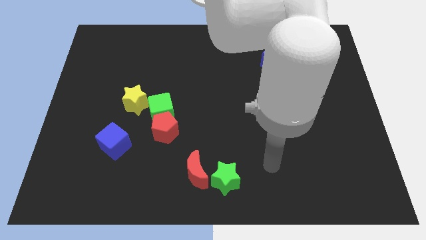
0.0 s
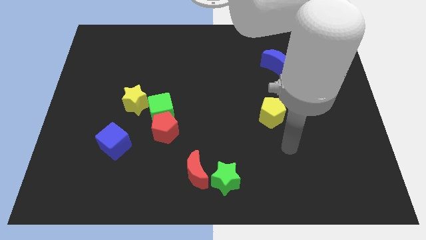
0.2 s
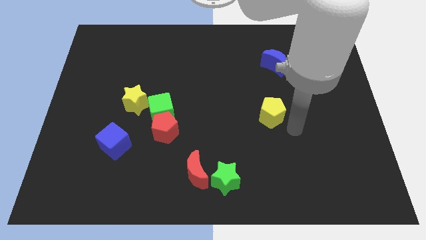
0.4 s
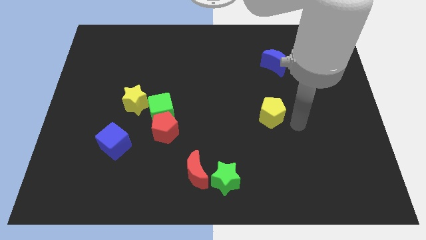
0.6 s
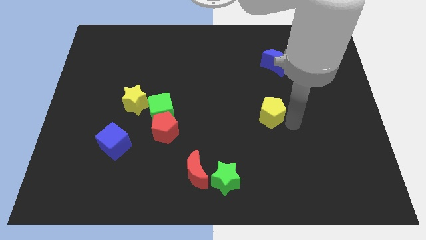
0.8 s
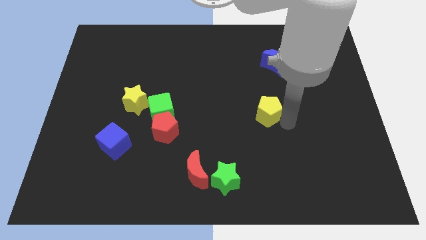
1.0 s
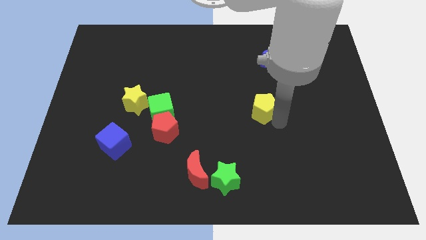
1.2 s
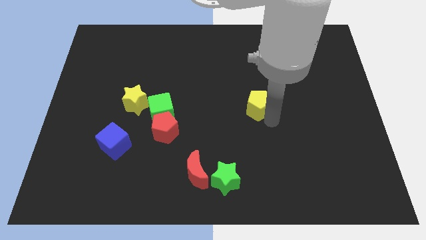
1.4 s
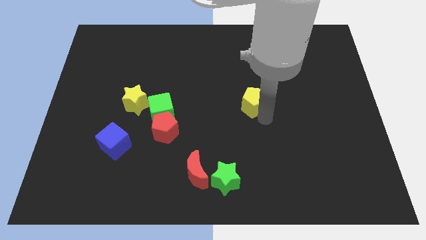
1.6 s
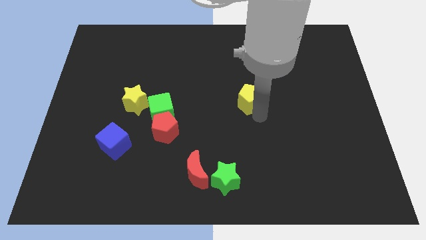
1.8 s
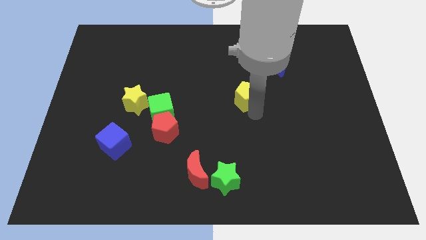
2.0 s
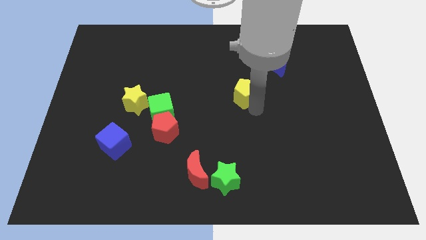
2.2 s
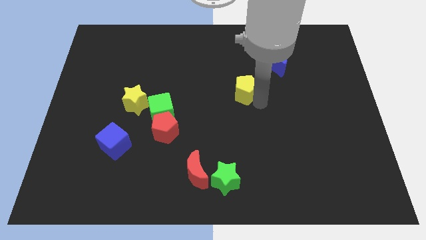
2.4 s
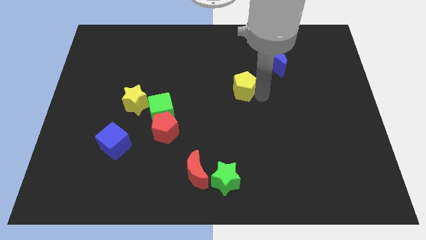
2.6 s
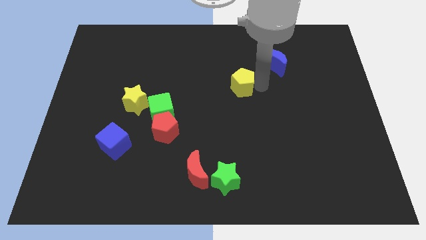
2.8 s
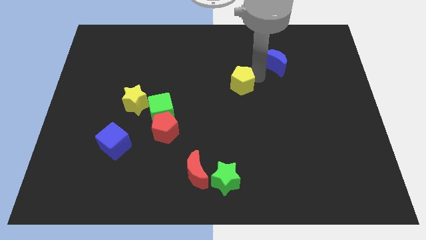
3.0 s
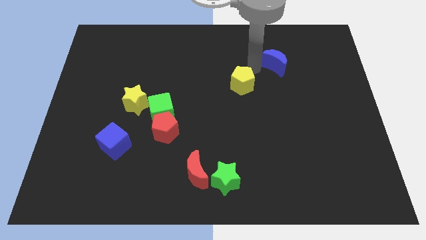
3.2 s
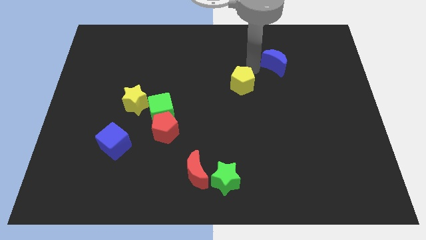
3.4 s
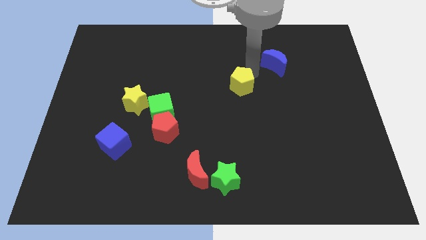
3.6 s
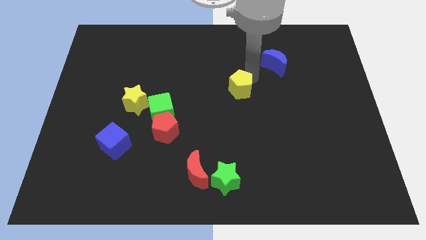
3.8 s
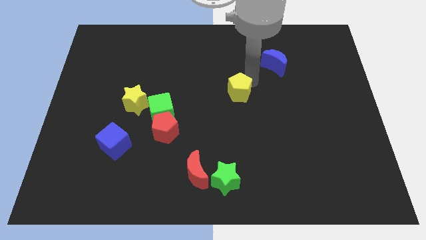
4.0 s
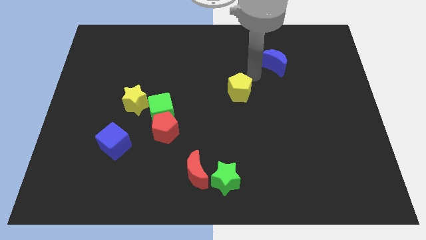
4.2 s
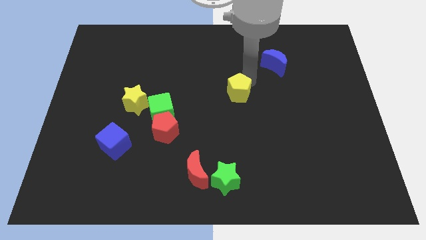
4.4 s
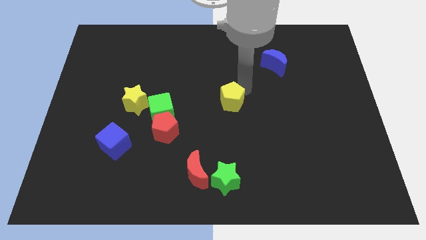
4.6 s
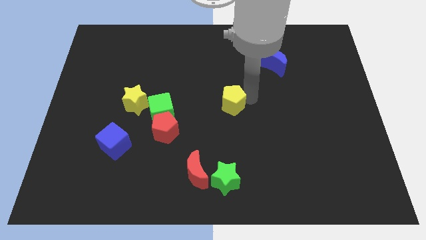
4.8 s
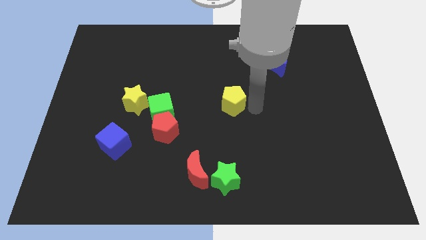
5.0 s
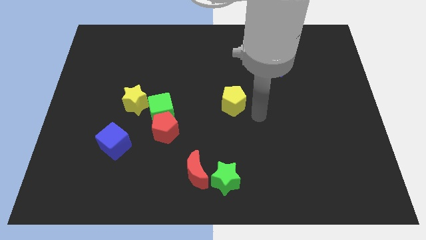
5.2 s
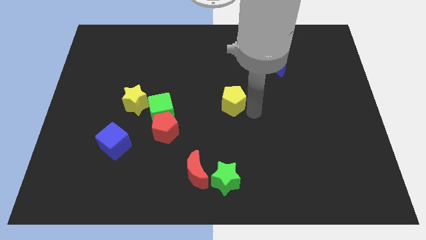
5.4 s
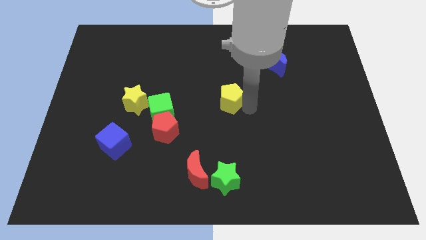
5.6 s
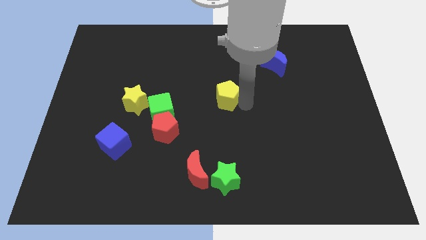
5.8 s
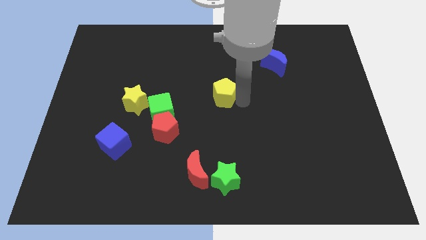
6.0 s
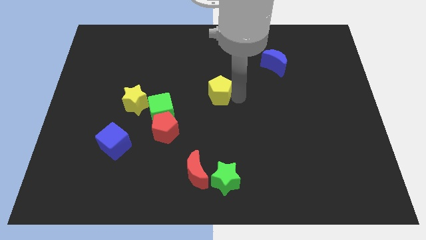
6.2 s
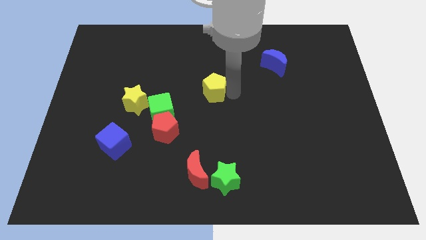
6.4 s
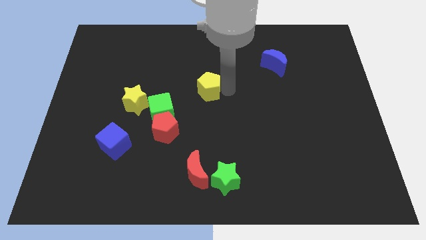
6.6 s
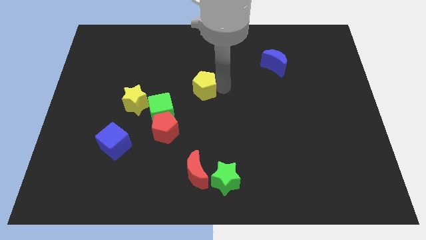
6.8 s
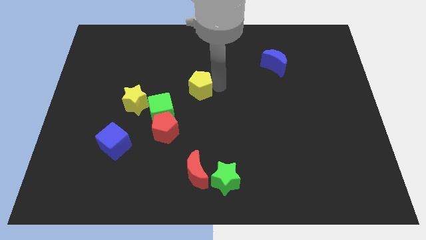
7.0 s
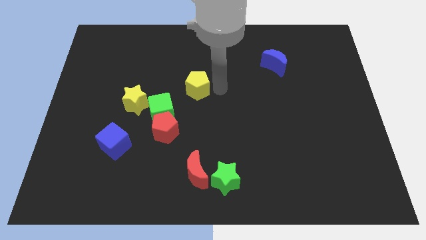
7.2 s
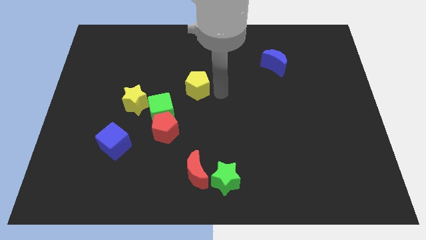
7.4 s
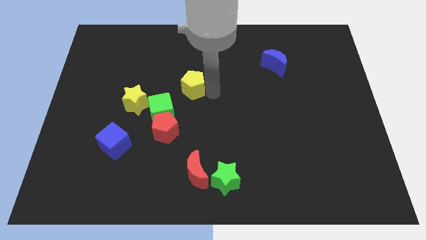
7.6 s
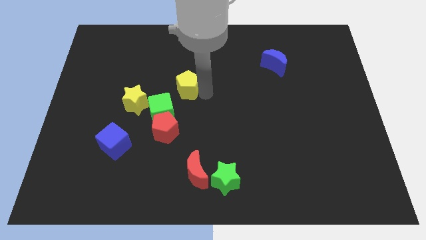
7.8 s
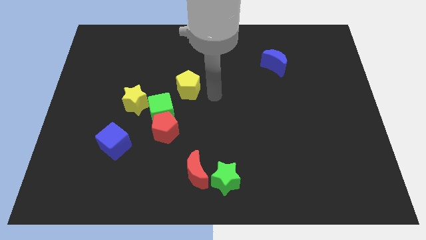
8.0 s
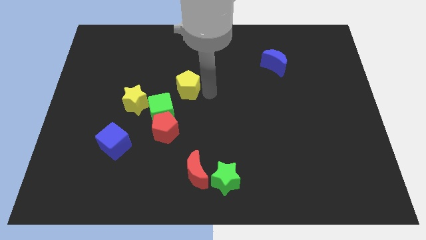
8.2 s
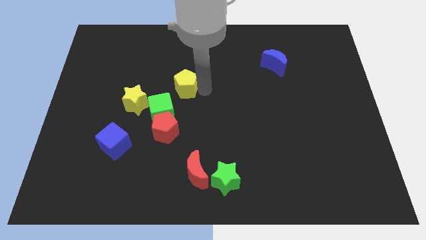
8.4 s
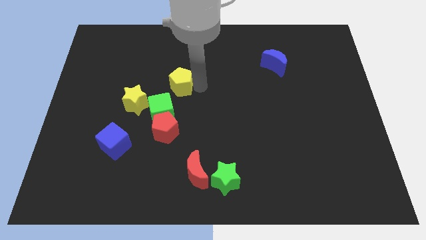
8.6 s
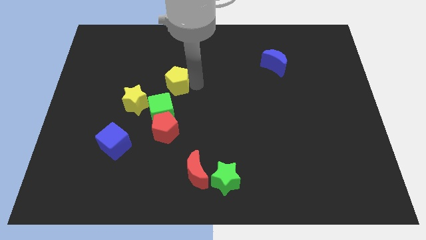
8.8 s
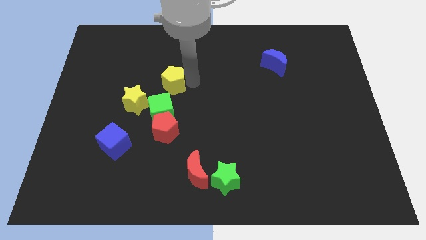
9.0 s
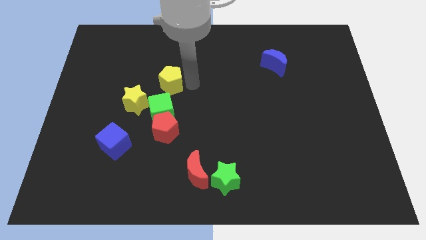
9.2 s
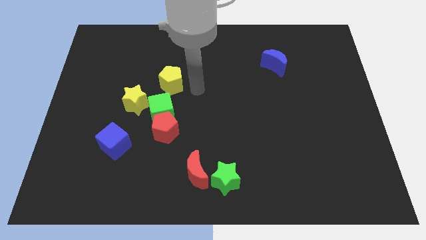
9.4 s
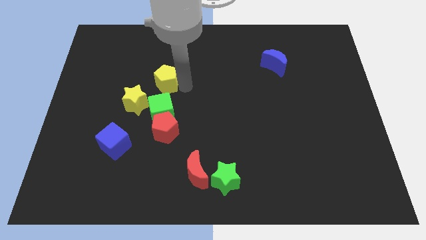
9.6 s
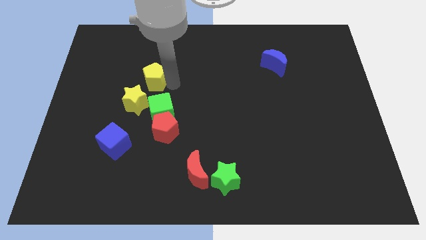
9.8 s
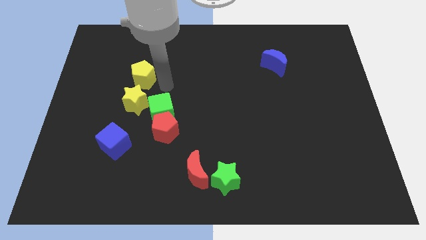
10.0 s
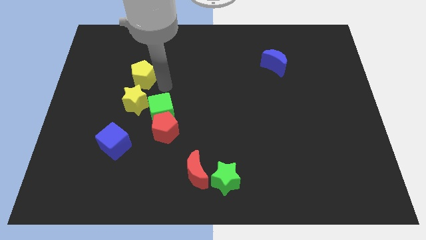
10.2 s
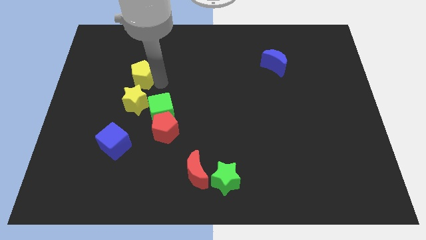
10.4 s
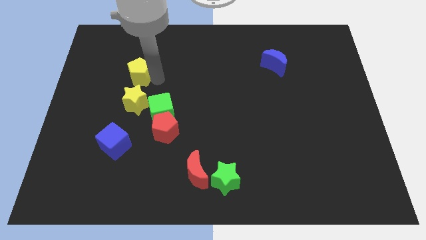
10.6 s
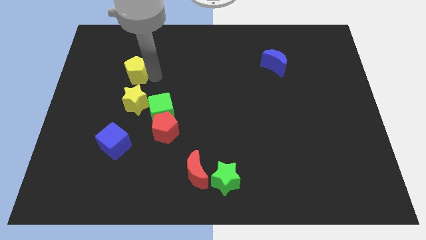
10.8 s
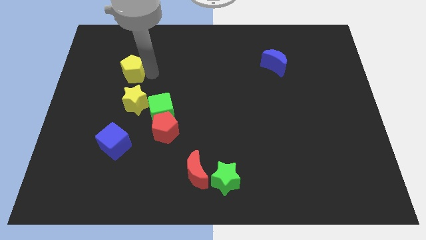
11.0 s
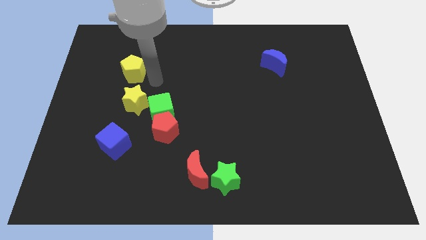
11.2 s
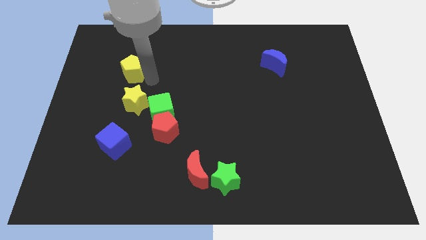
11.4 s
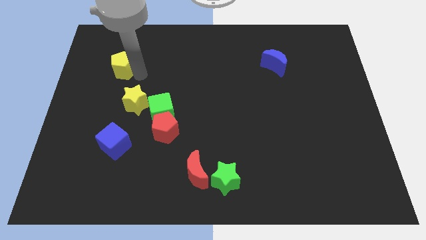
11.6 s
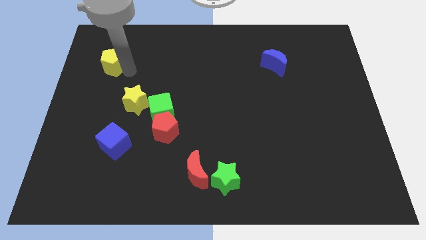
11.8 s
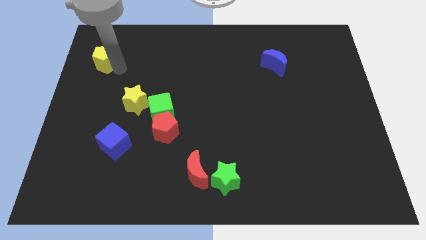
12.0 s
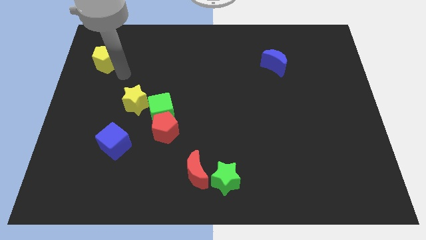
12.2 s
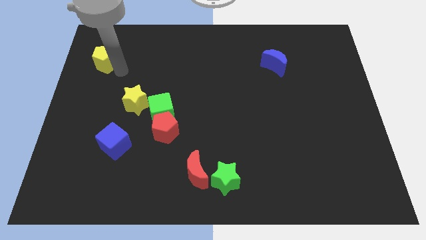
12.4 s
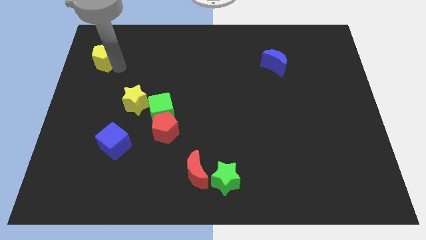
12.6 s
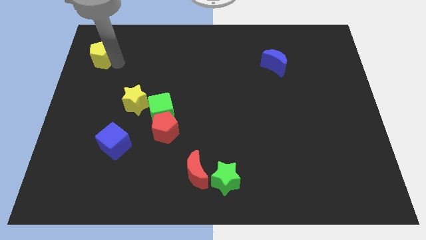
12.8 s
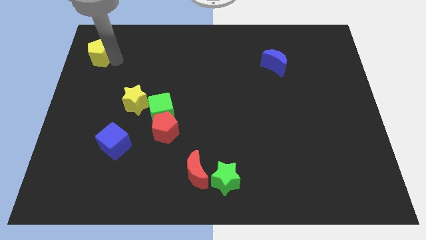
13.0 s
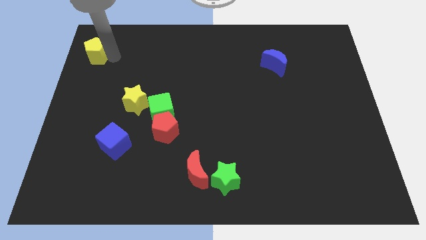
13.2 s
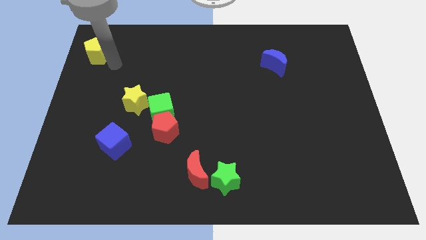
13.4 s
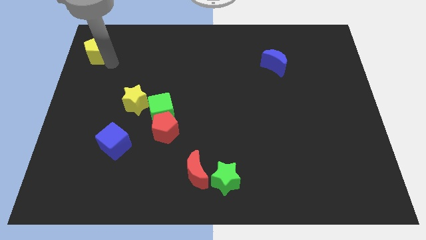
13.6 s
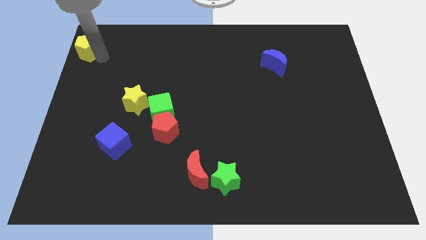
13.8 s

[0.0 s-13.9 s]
move the yellow pentagon to the top left of the board
